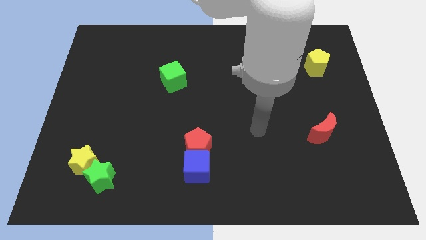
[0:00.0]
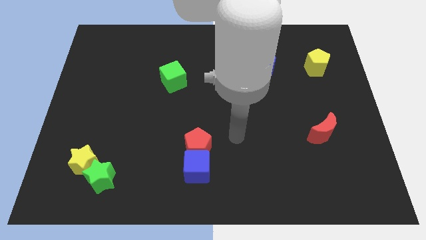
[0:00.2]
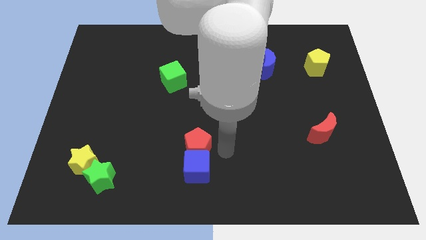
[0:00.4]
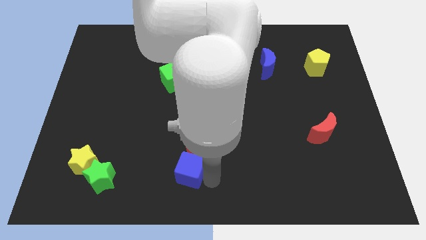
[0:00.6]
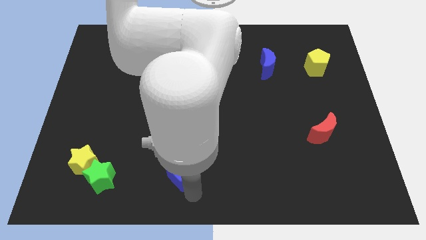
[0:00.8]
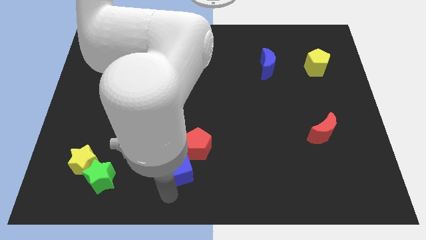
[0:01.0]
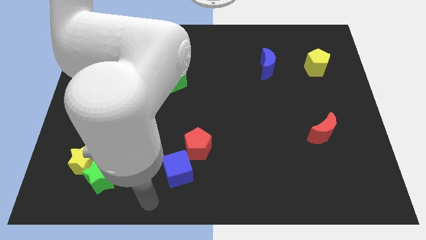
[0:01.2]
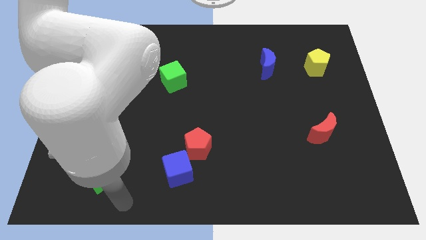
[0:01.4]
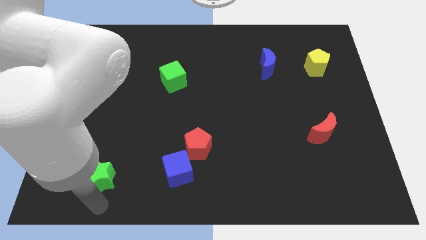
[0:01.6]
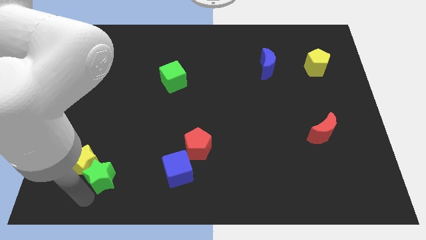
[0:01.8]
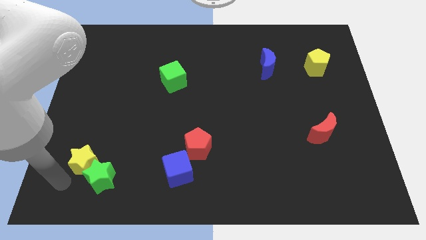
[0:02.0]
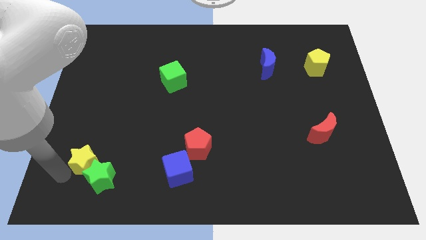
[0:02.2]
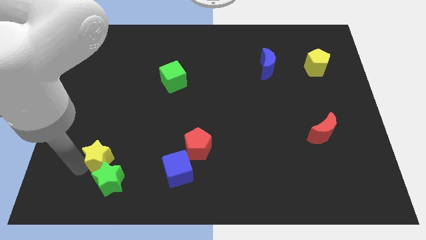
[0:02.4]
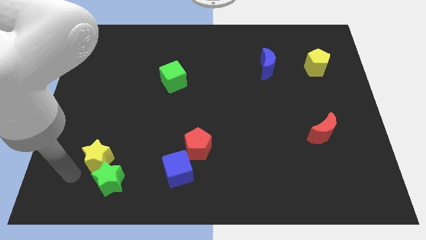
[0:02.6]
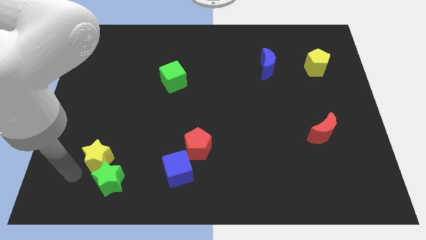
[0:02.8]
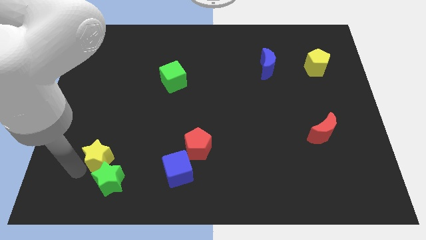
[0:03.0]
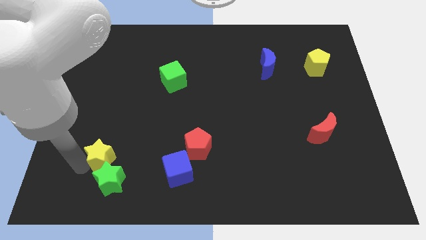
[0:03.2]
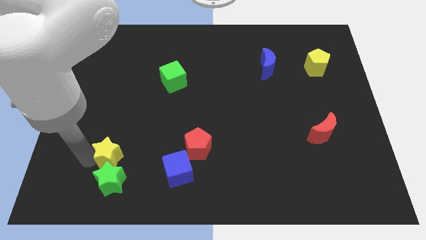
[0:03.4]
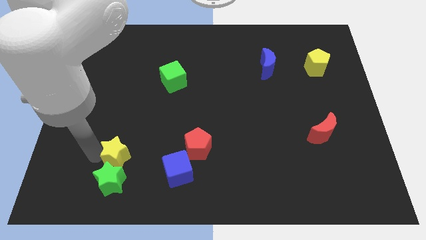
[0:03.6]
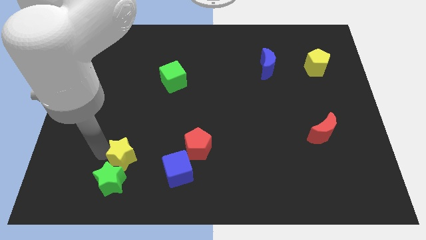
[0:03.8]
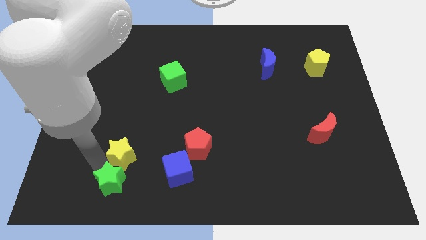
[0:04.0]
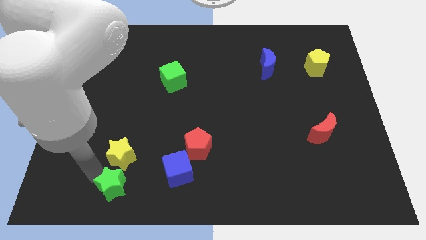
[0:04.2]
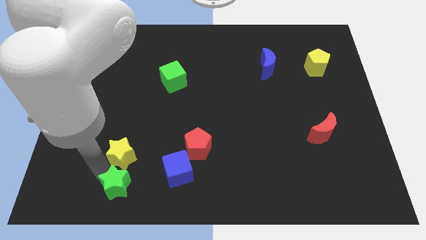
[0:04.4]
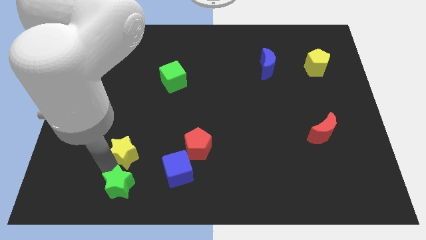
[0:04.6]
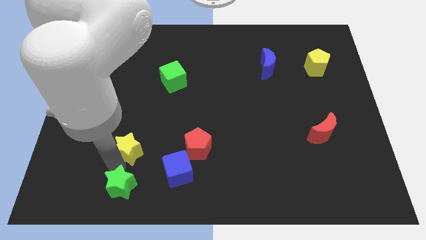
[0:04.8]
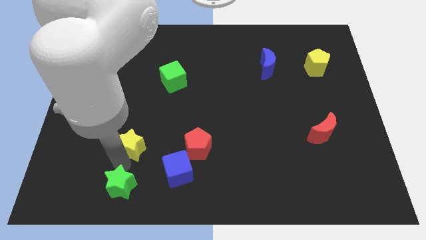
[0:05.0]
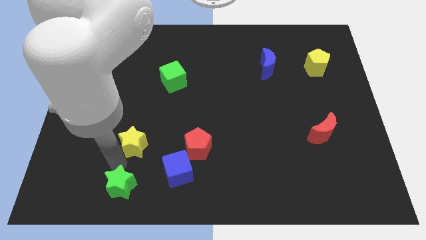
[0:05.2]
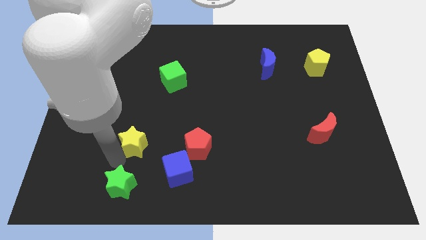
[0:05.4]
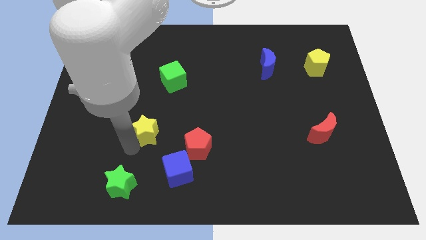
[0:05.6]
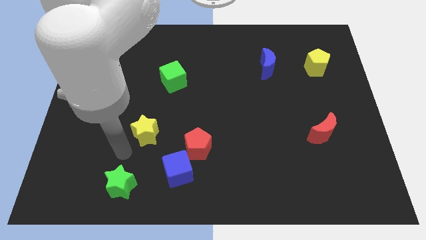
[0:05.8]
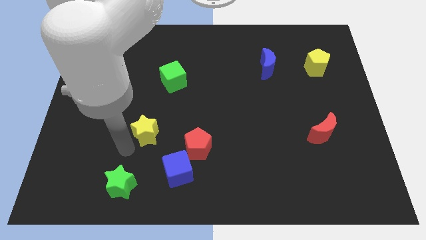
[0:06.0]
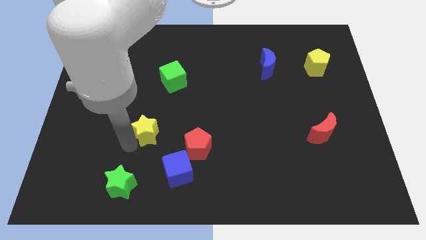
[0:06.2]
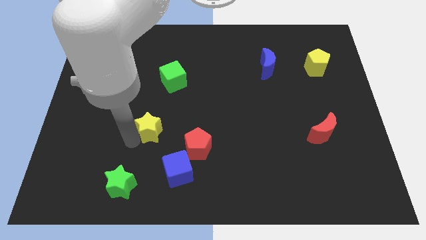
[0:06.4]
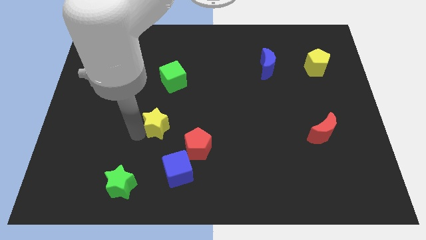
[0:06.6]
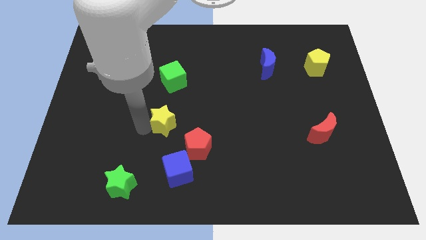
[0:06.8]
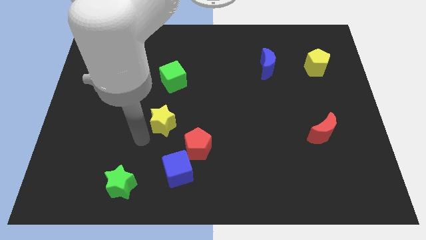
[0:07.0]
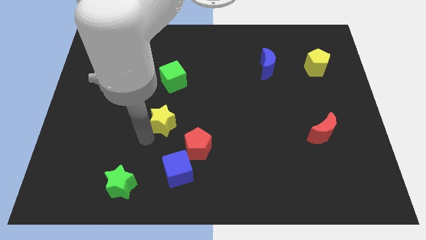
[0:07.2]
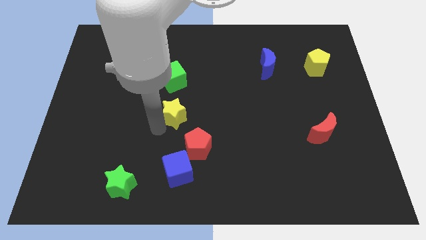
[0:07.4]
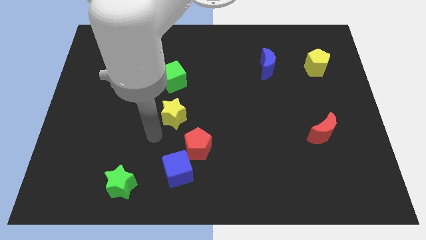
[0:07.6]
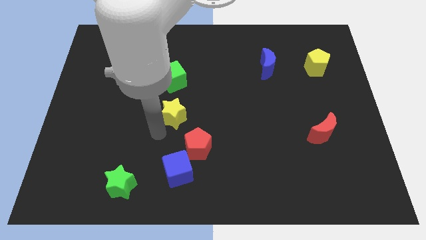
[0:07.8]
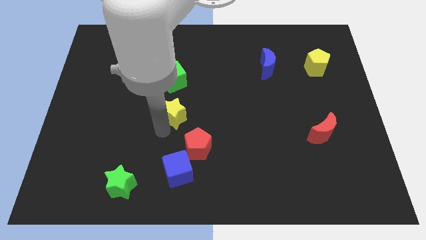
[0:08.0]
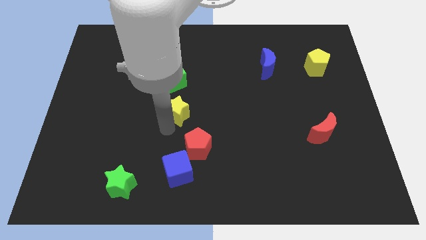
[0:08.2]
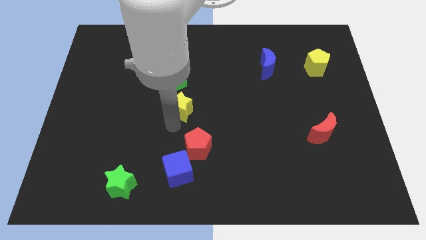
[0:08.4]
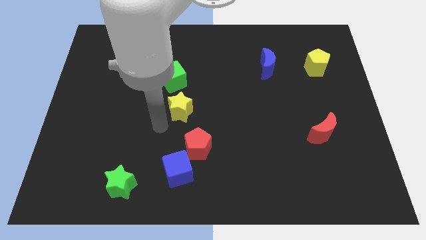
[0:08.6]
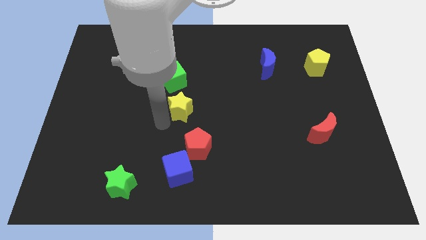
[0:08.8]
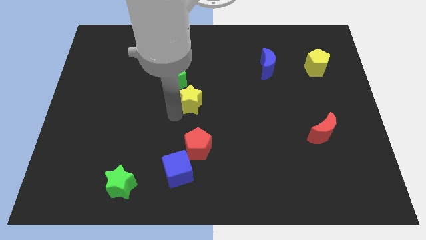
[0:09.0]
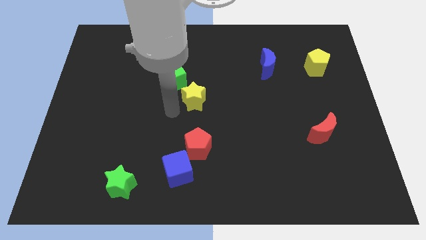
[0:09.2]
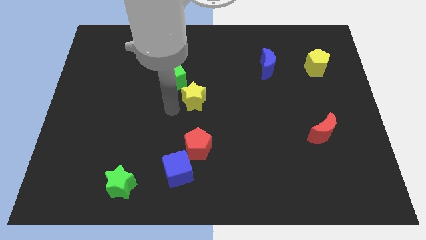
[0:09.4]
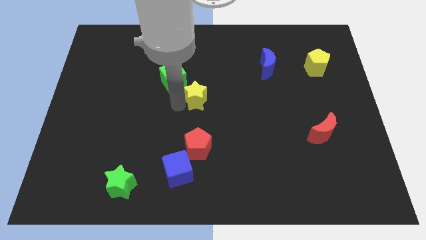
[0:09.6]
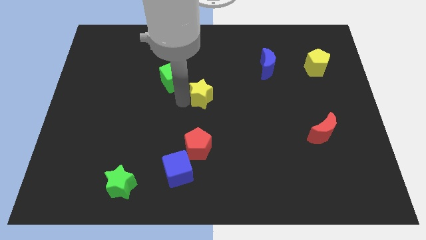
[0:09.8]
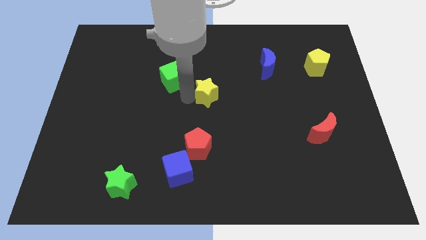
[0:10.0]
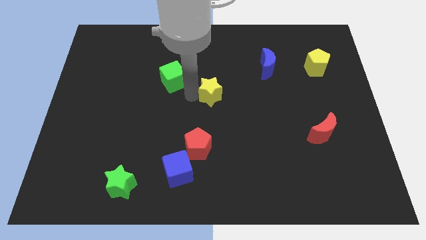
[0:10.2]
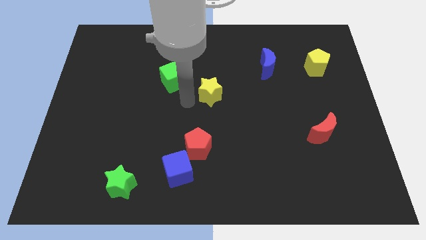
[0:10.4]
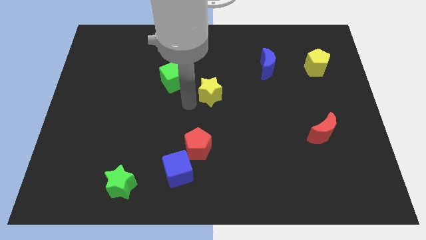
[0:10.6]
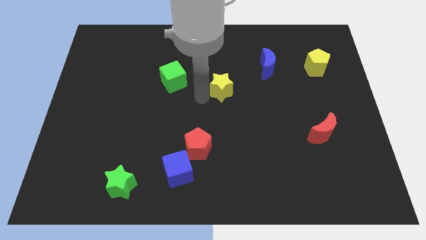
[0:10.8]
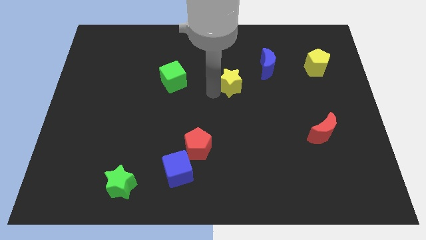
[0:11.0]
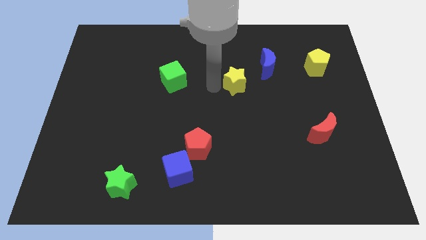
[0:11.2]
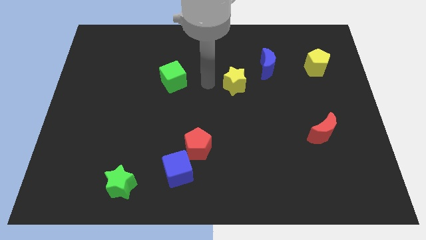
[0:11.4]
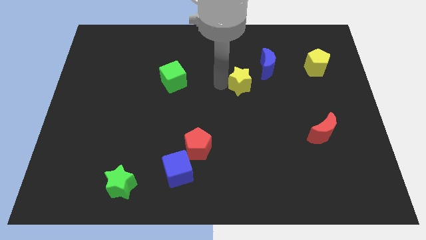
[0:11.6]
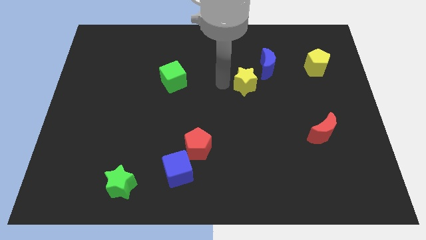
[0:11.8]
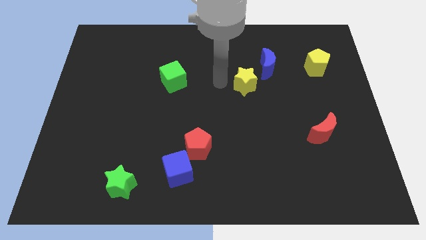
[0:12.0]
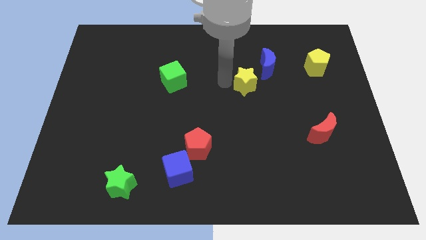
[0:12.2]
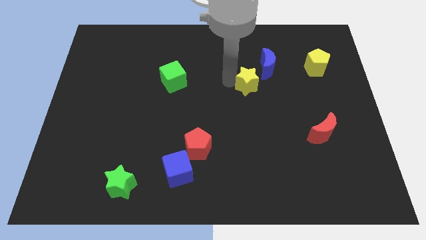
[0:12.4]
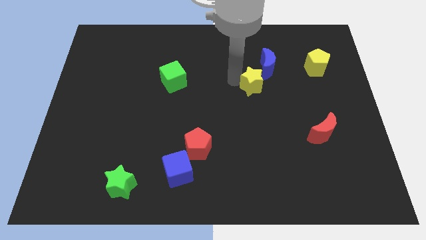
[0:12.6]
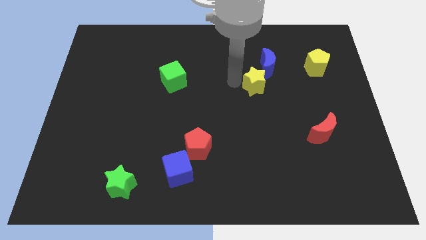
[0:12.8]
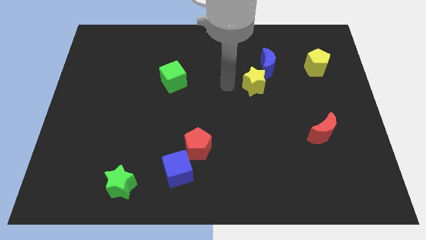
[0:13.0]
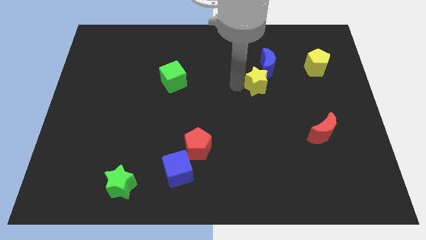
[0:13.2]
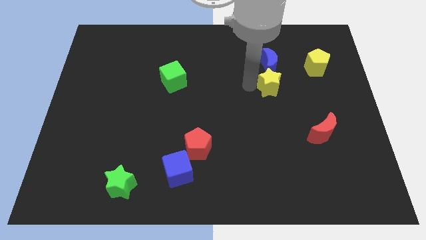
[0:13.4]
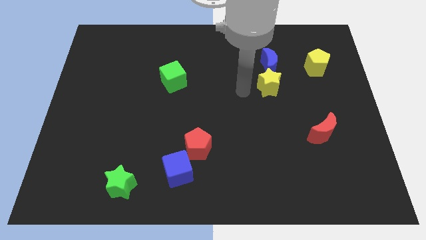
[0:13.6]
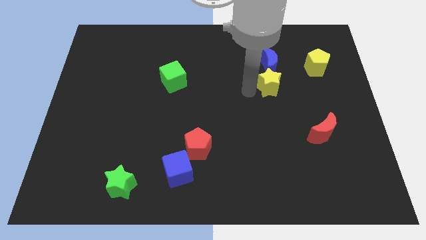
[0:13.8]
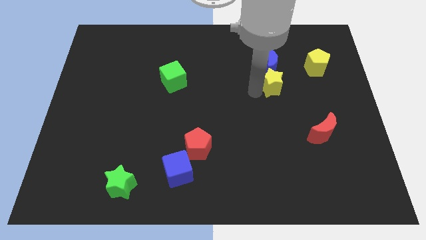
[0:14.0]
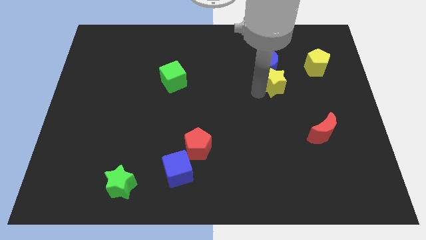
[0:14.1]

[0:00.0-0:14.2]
put the yellow star diagonally down and to the right of the blue moon

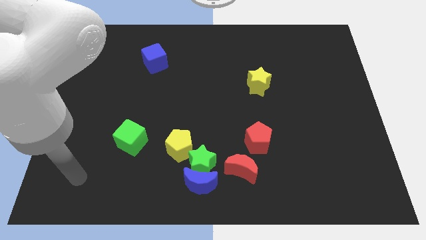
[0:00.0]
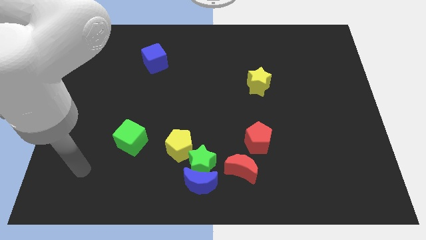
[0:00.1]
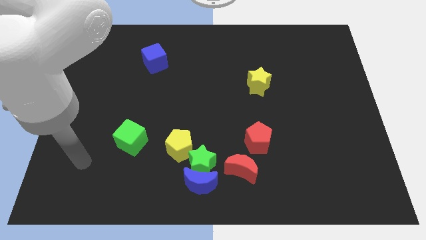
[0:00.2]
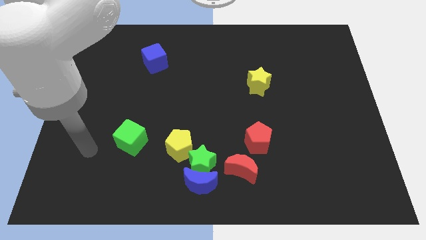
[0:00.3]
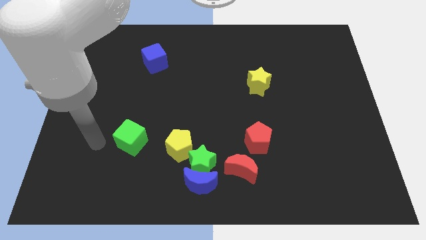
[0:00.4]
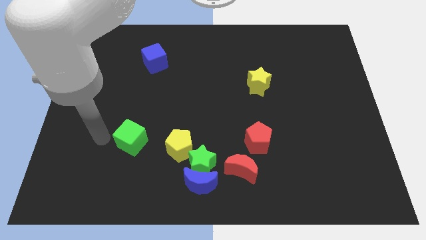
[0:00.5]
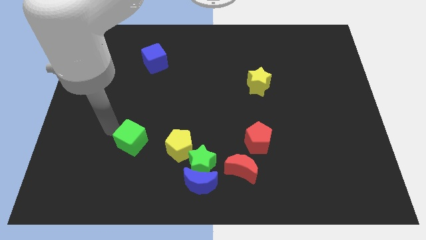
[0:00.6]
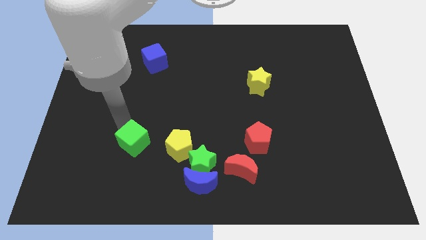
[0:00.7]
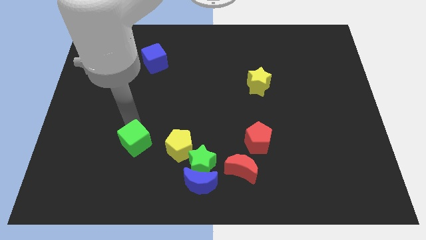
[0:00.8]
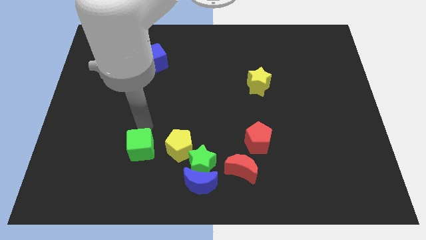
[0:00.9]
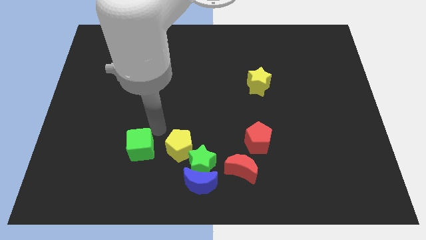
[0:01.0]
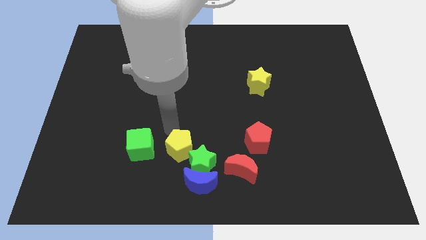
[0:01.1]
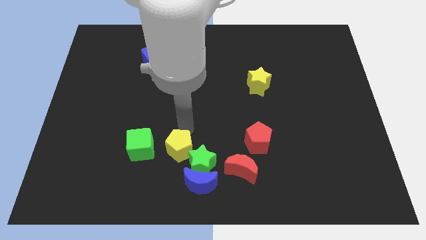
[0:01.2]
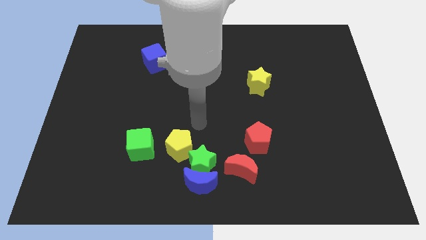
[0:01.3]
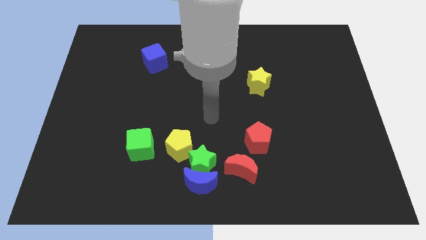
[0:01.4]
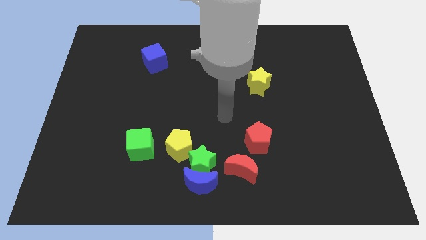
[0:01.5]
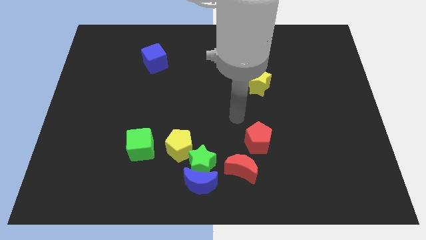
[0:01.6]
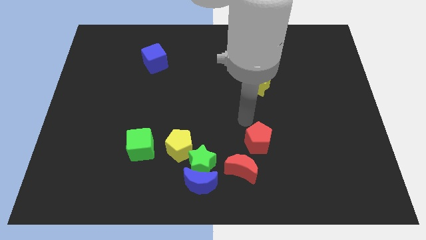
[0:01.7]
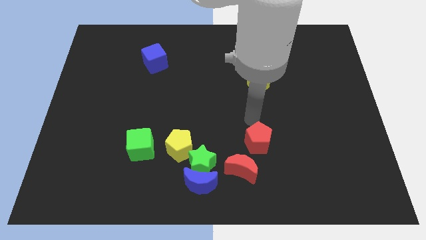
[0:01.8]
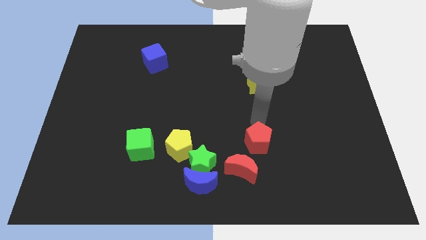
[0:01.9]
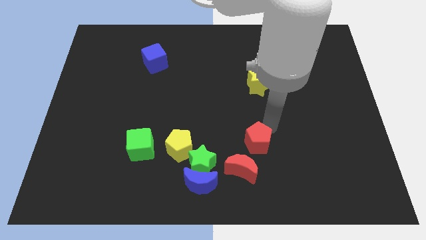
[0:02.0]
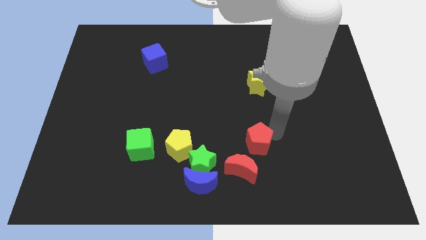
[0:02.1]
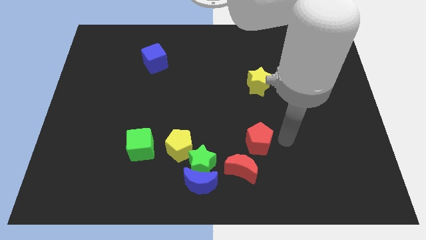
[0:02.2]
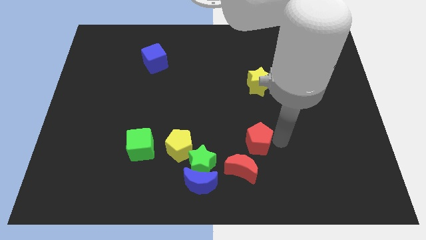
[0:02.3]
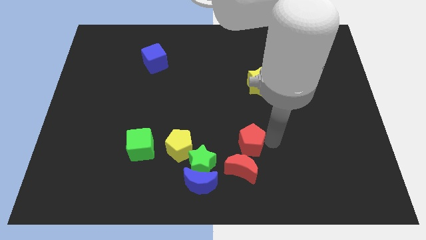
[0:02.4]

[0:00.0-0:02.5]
slide the red pentagon diagonally up and to the right of the green star
